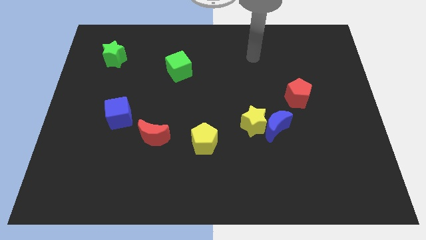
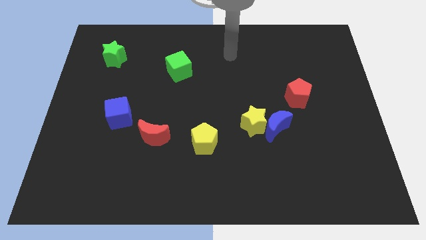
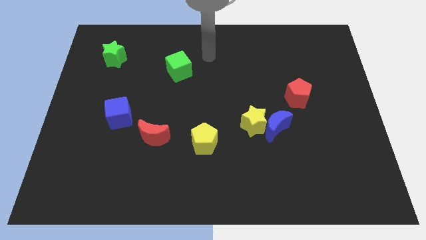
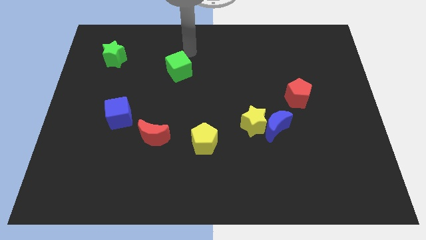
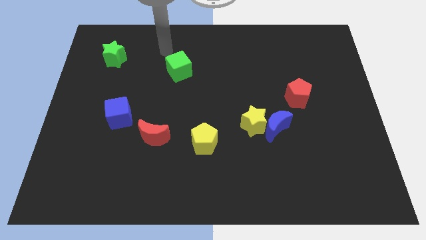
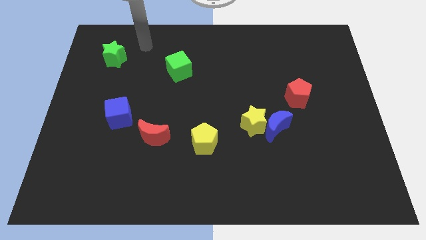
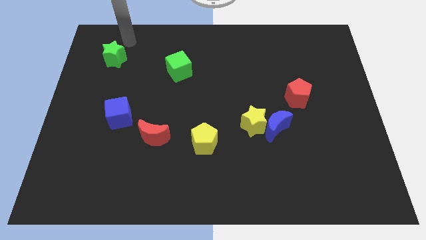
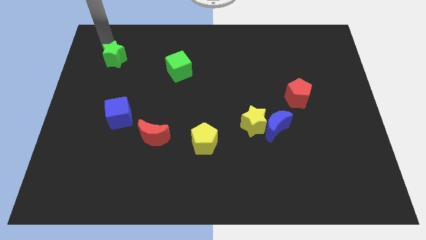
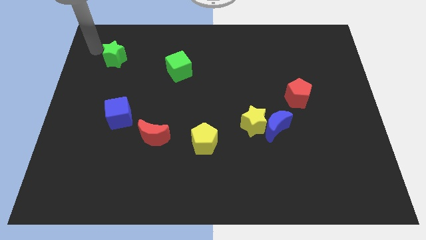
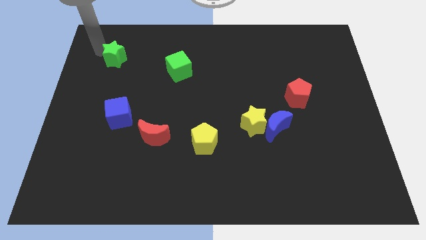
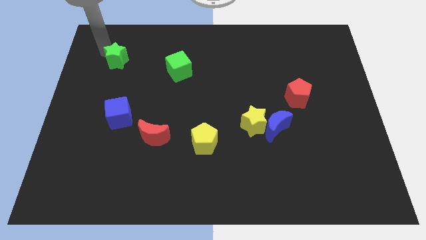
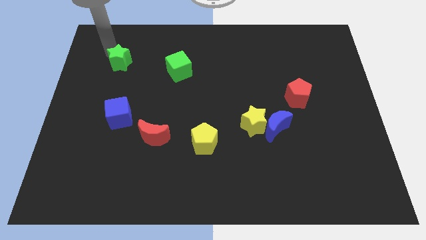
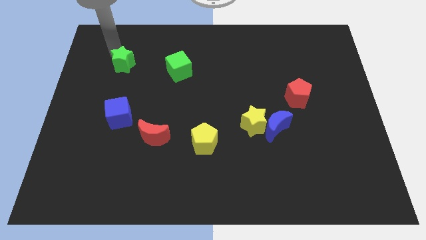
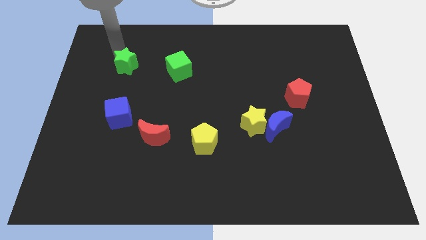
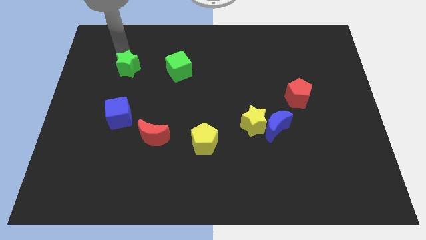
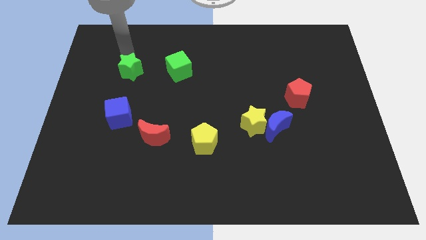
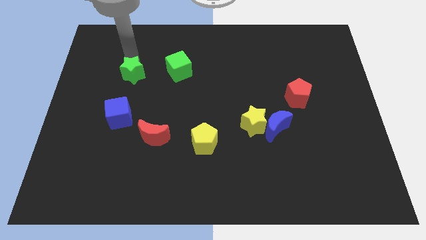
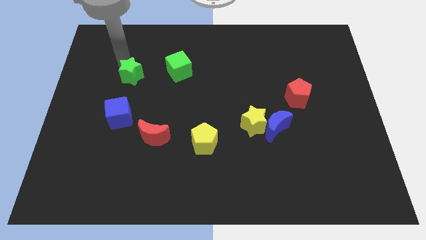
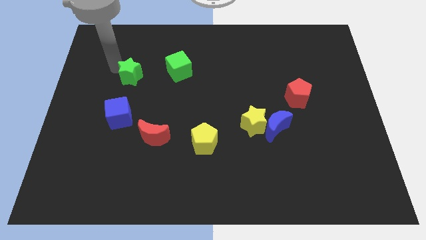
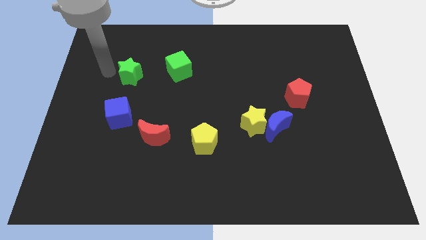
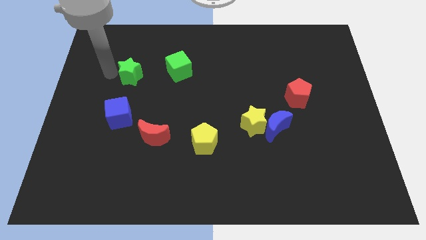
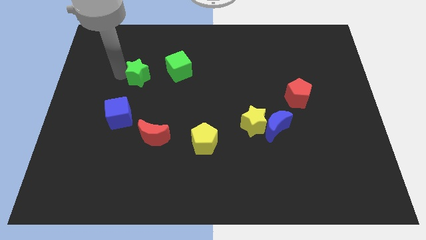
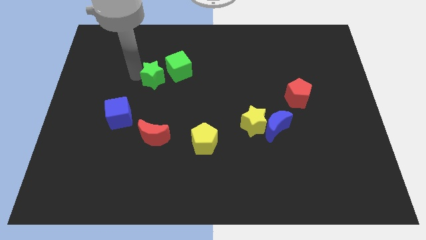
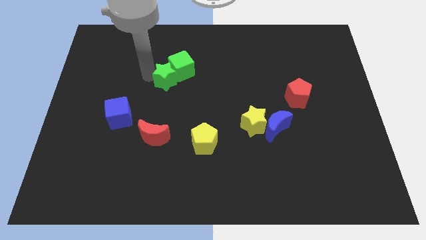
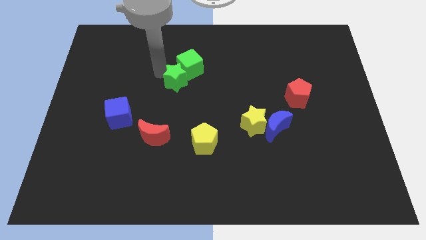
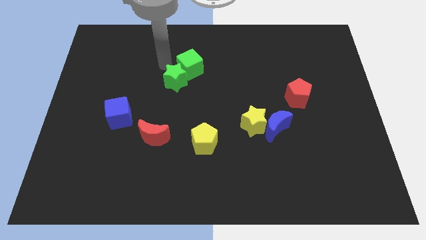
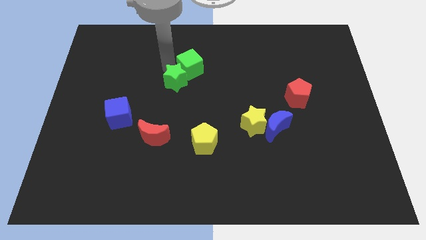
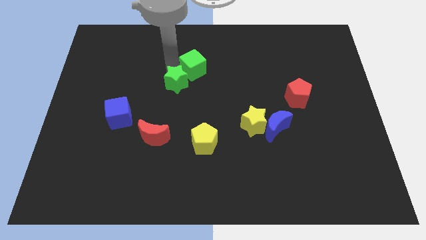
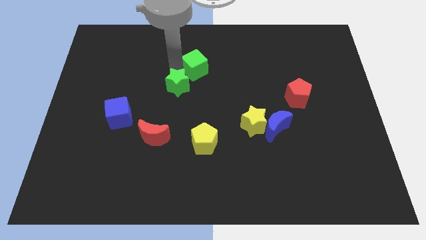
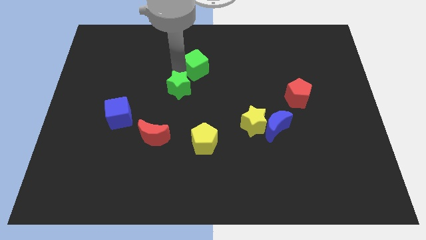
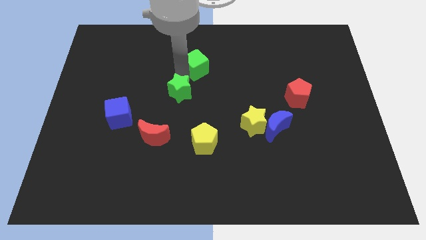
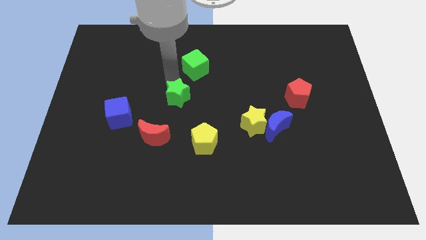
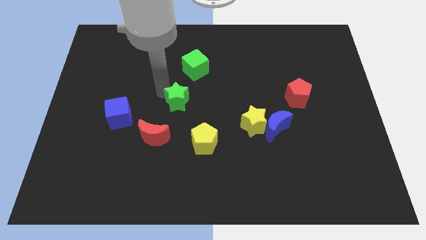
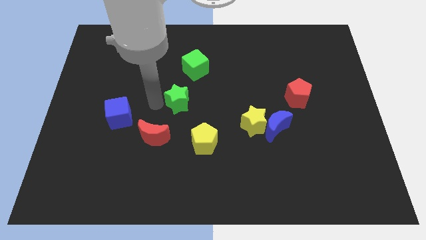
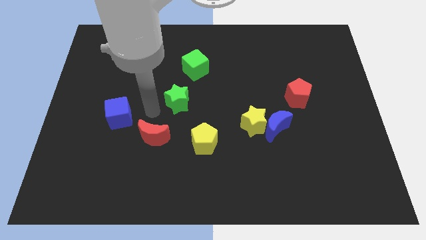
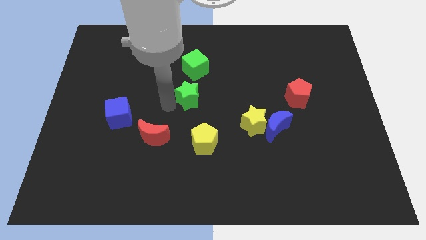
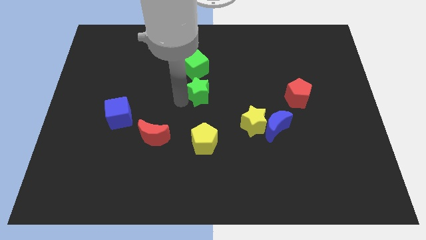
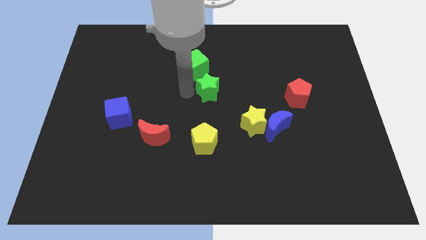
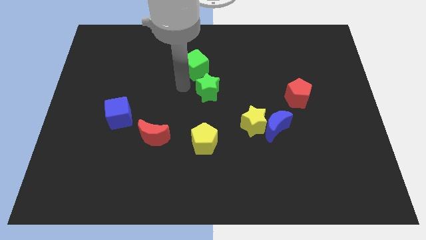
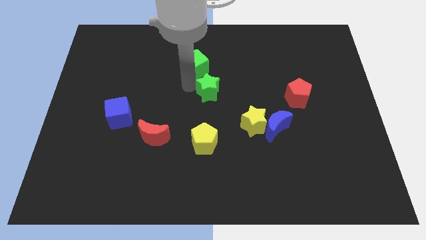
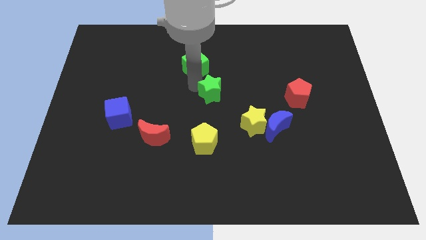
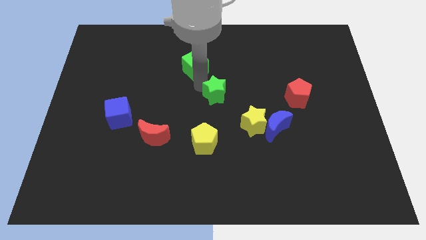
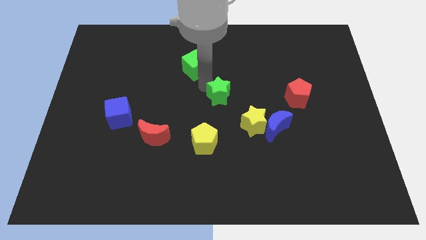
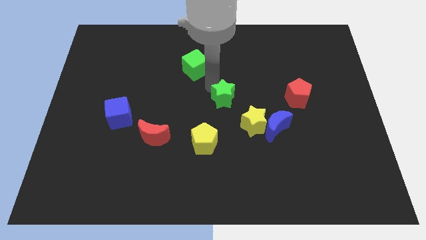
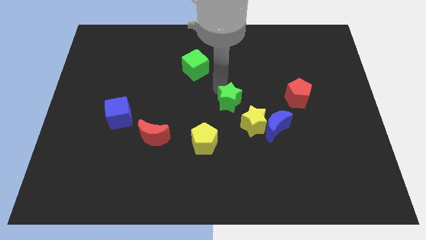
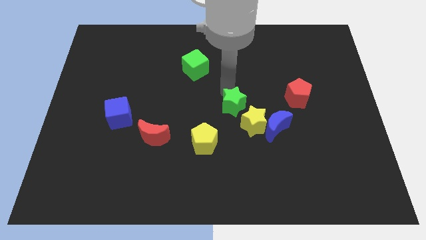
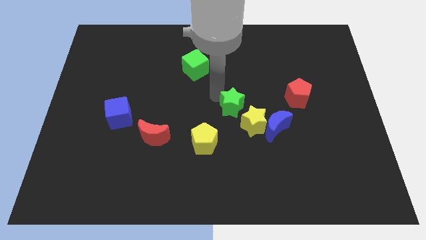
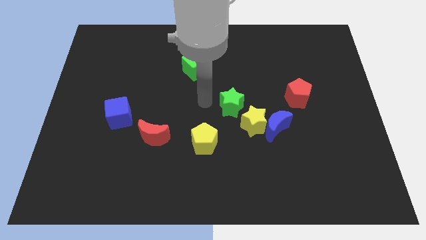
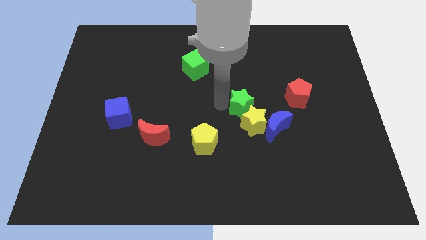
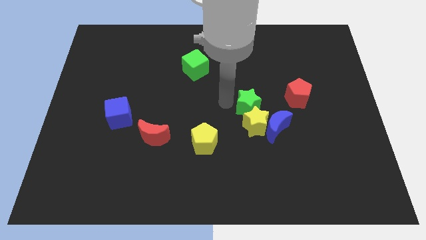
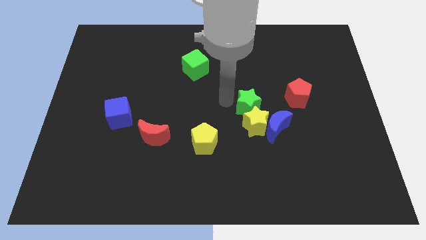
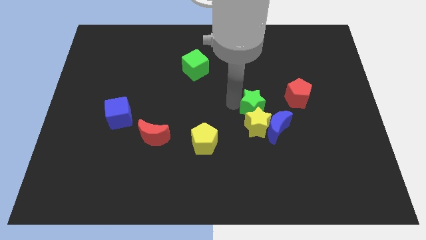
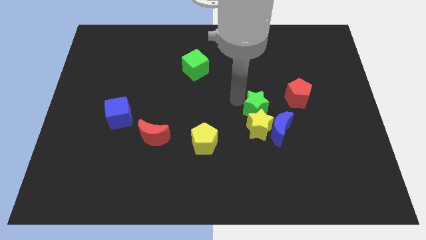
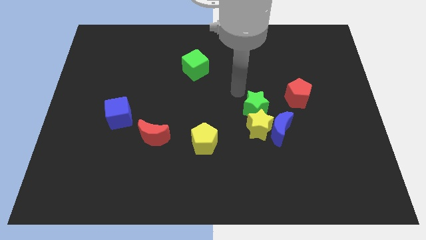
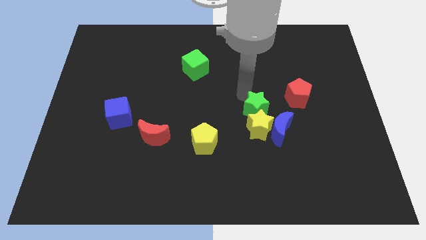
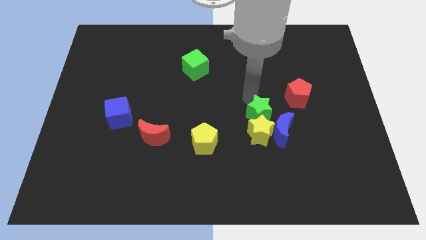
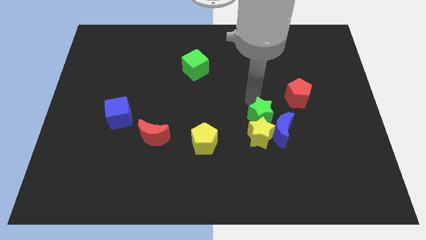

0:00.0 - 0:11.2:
put the green star to the blue moon

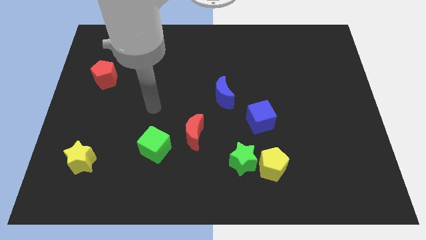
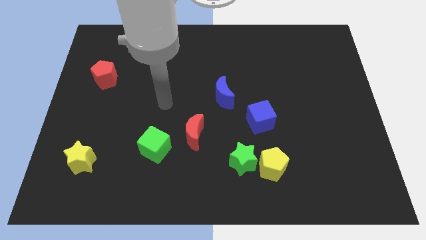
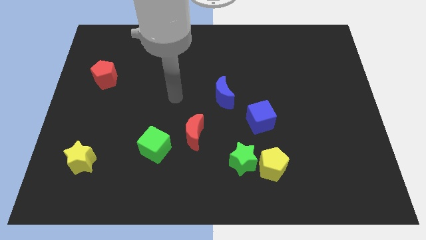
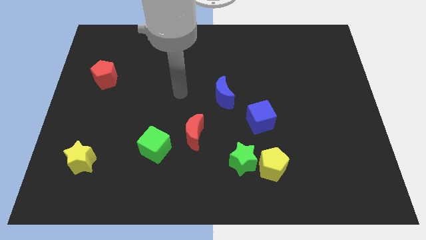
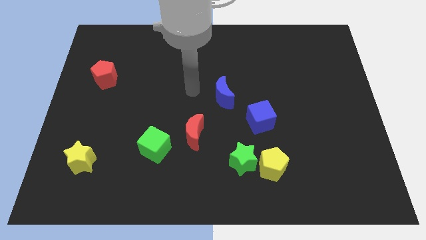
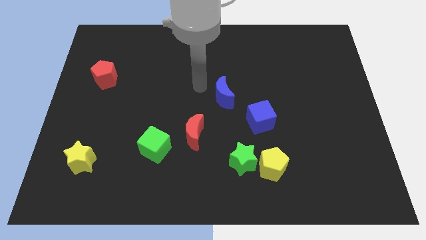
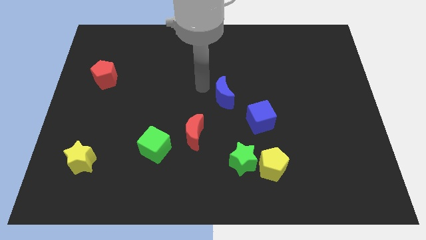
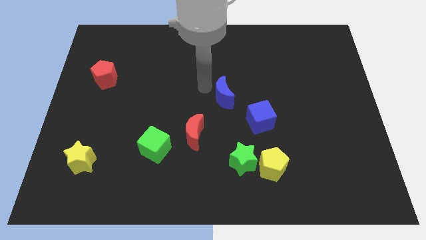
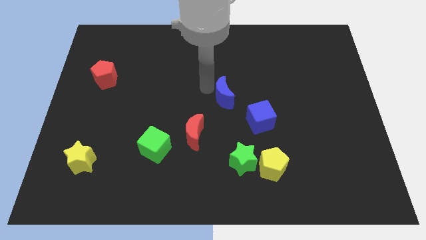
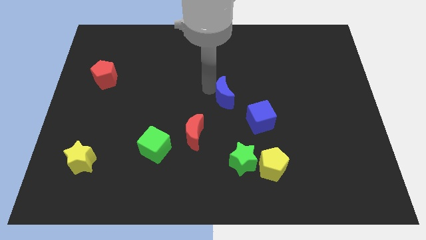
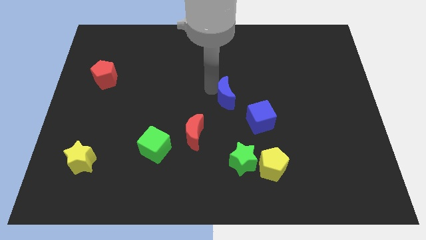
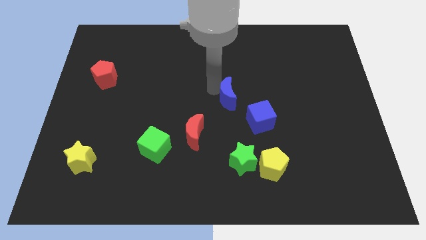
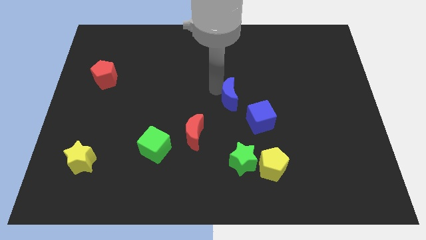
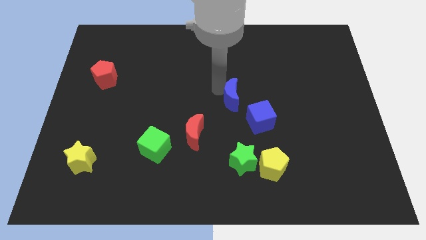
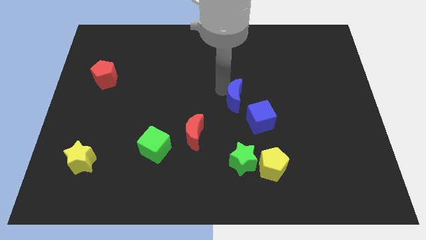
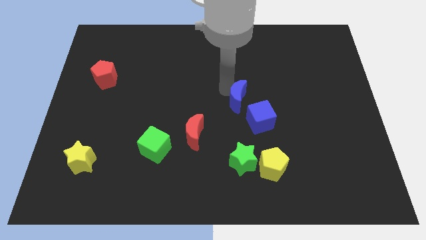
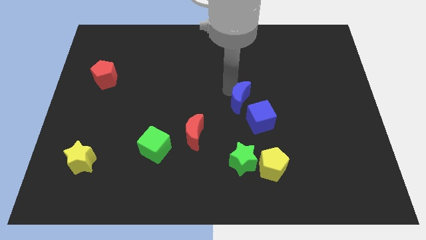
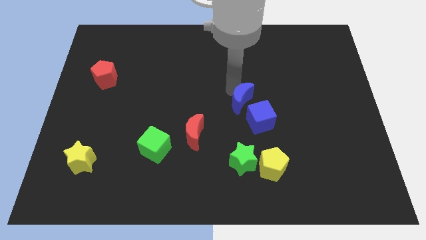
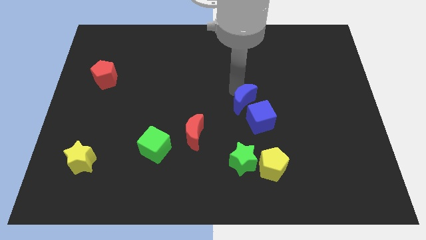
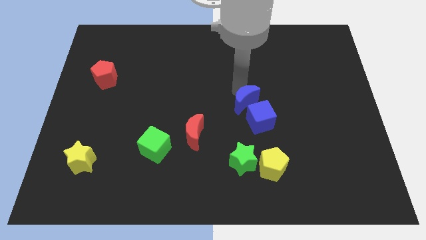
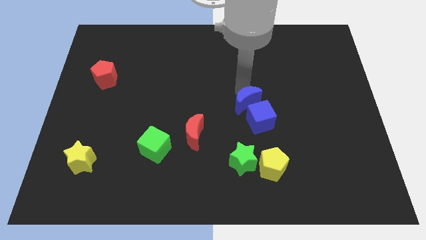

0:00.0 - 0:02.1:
move the blue moon next to the blue cube
